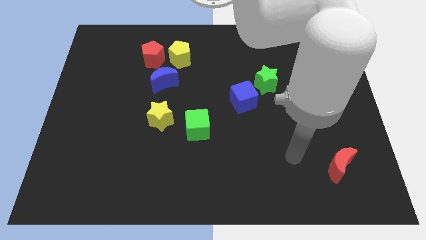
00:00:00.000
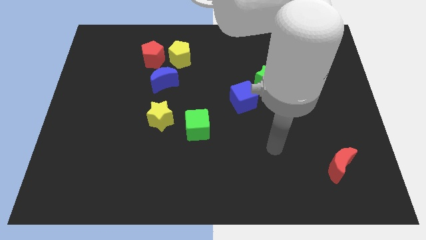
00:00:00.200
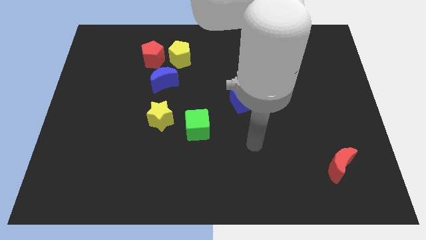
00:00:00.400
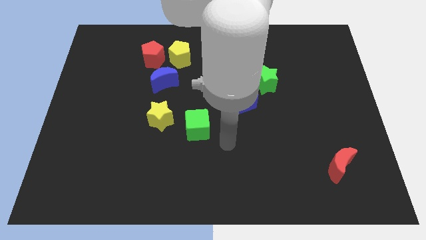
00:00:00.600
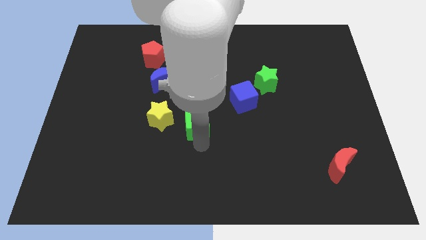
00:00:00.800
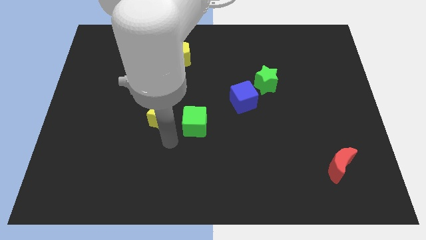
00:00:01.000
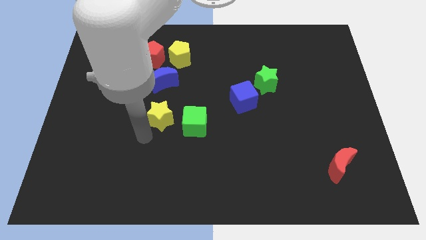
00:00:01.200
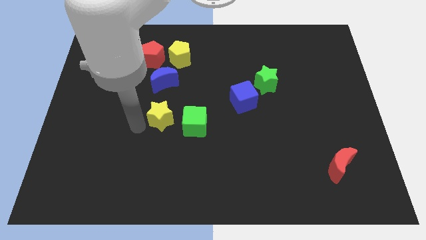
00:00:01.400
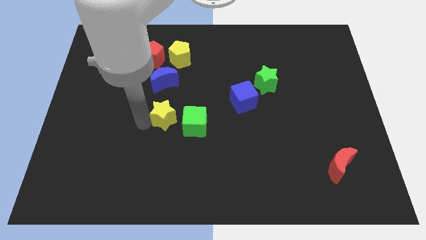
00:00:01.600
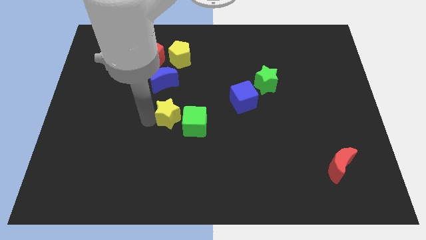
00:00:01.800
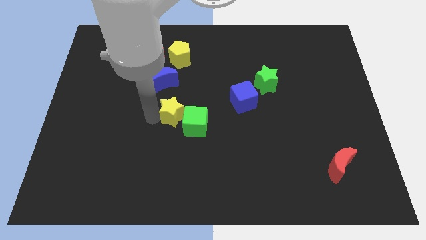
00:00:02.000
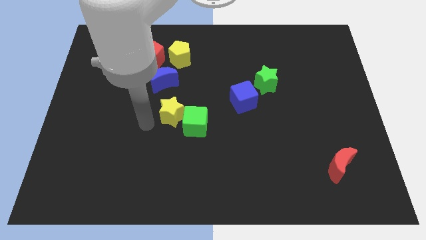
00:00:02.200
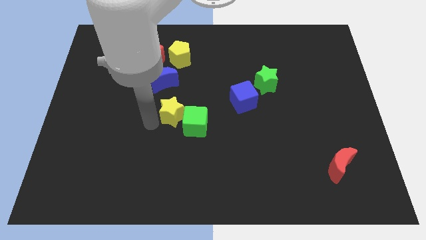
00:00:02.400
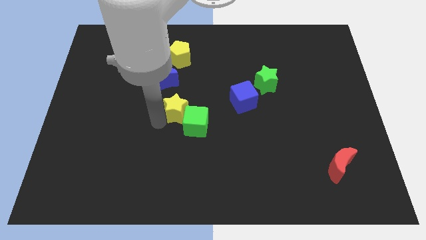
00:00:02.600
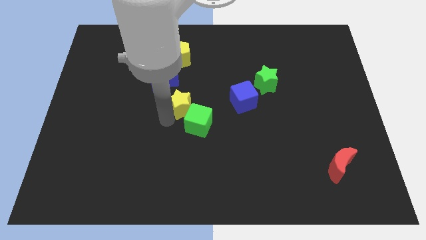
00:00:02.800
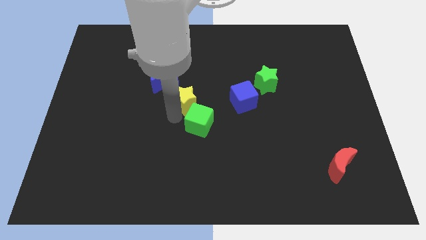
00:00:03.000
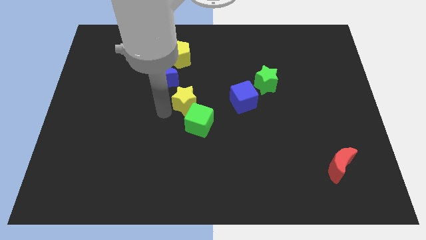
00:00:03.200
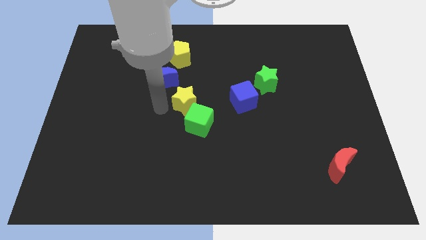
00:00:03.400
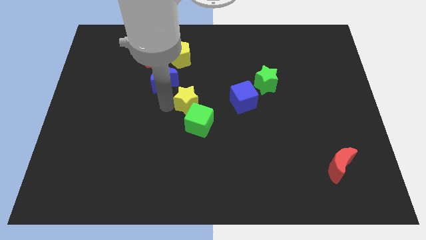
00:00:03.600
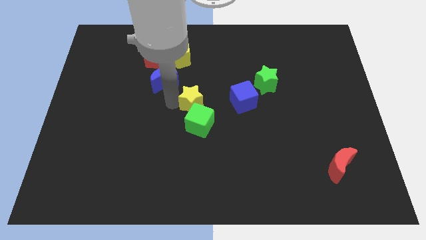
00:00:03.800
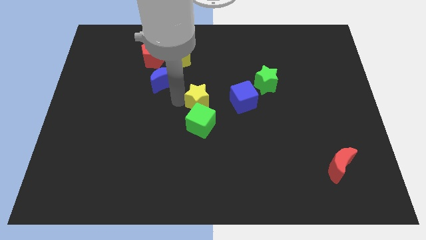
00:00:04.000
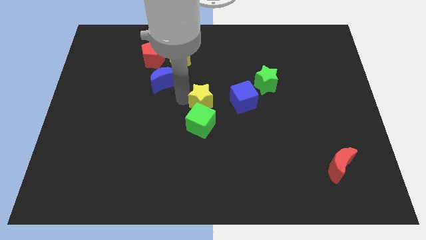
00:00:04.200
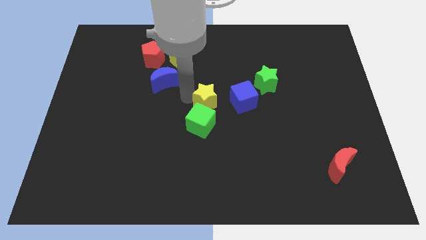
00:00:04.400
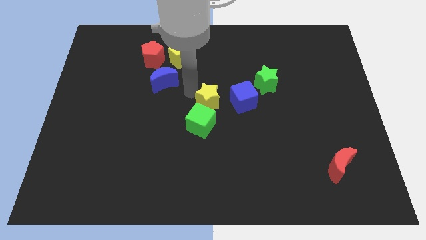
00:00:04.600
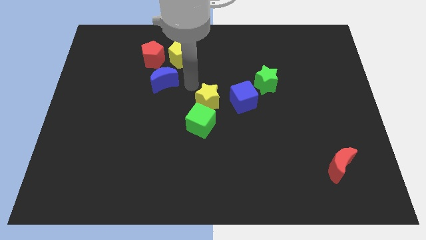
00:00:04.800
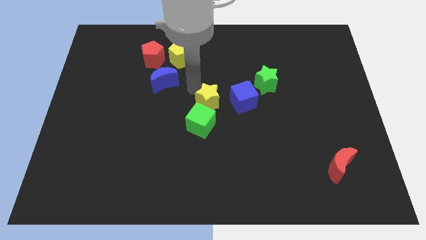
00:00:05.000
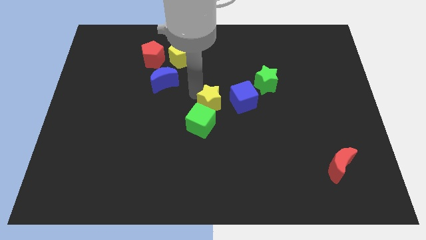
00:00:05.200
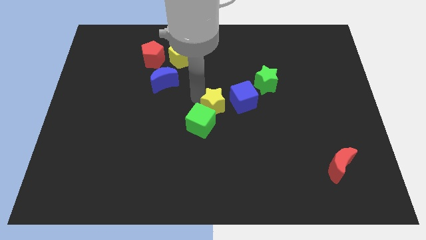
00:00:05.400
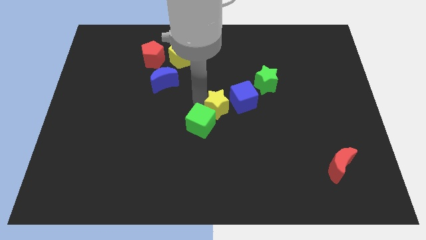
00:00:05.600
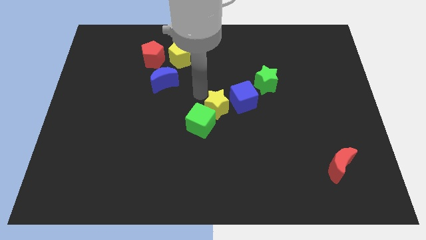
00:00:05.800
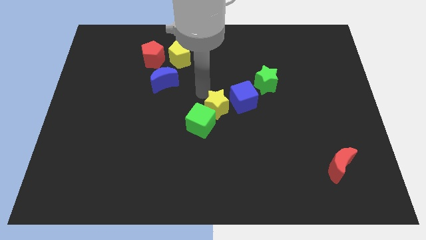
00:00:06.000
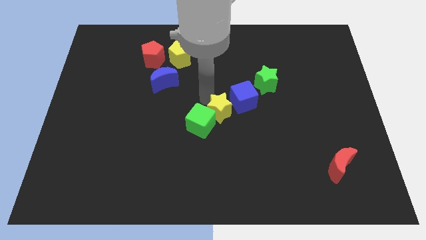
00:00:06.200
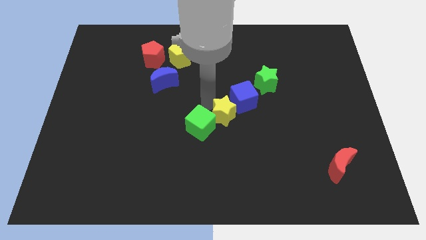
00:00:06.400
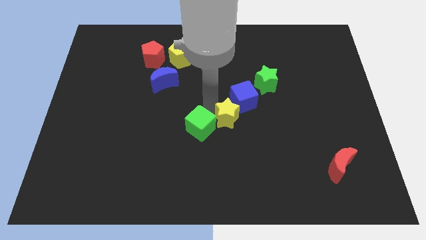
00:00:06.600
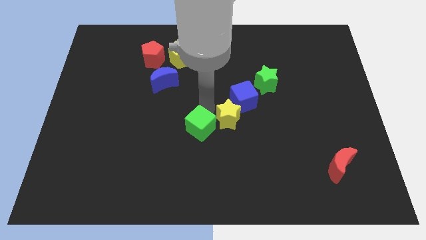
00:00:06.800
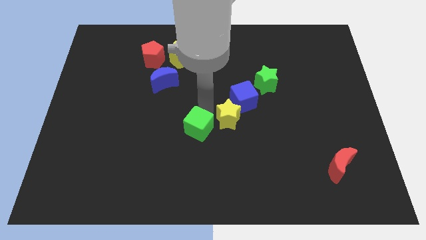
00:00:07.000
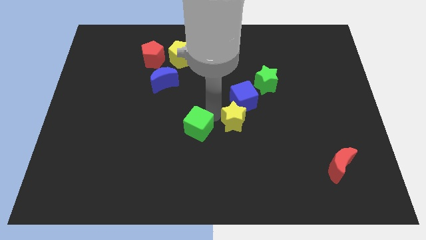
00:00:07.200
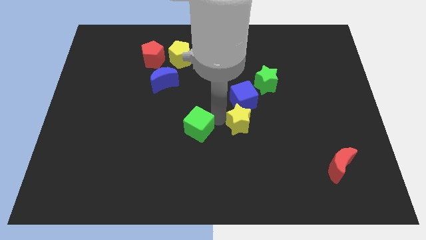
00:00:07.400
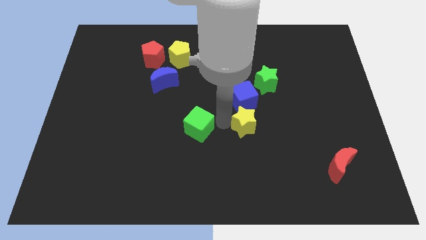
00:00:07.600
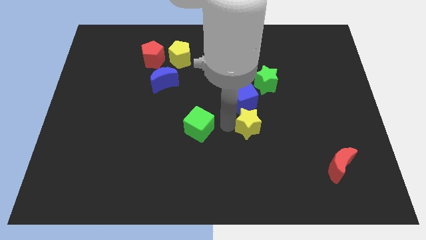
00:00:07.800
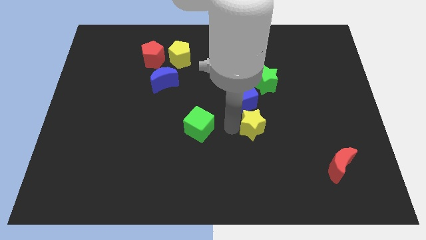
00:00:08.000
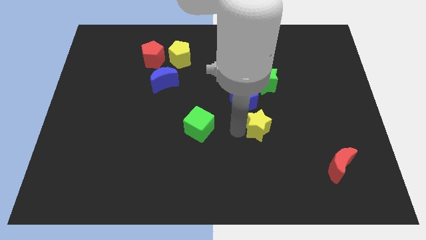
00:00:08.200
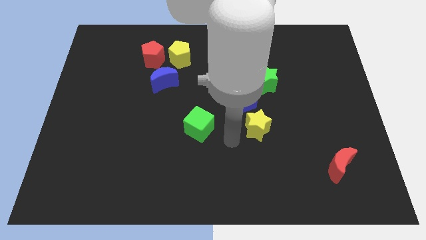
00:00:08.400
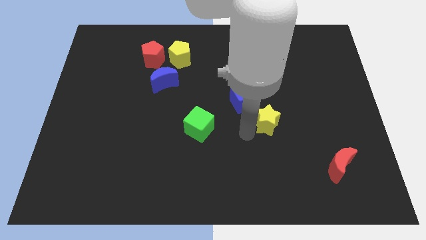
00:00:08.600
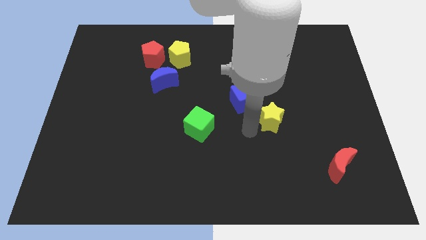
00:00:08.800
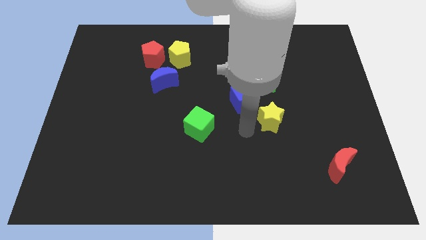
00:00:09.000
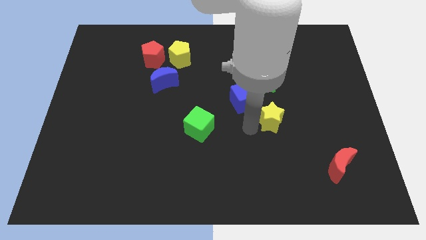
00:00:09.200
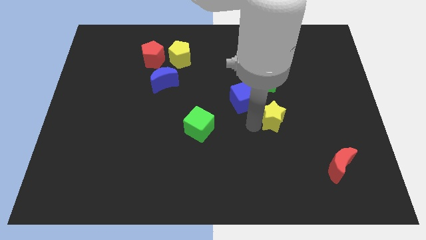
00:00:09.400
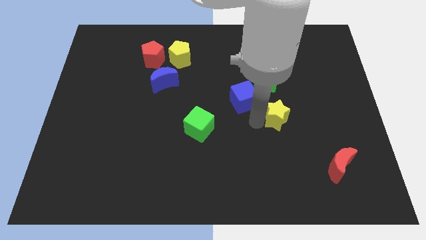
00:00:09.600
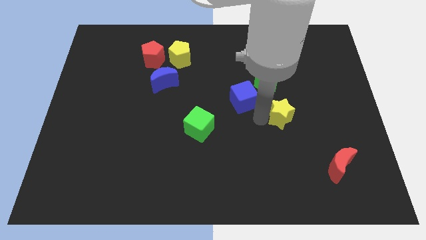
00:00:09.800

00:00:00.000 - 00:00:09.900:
put the yellow star to the right of the blue cube

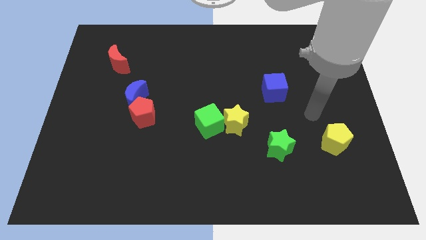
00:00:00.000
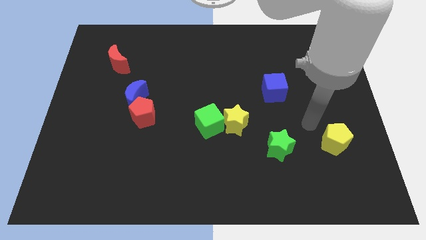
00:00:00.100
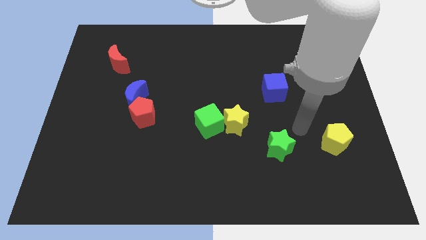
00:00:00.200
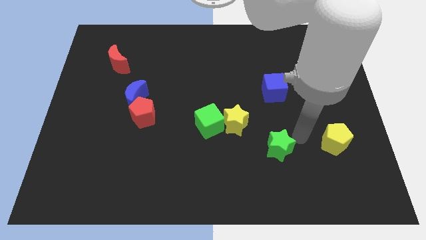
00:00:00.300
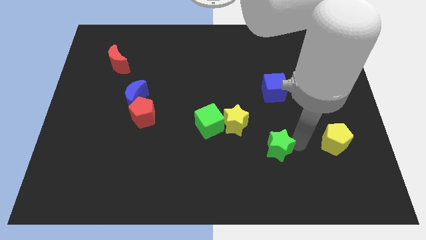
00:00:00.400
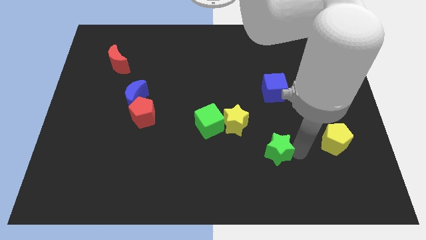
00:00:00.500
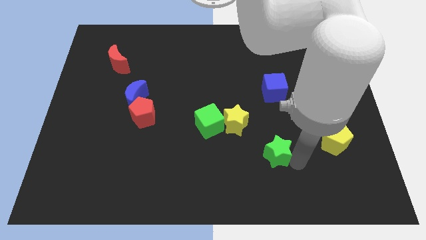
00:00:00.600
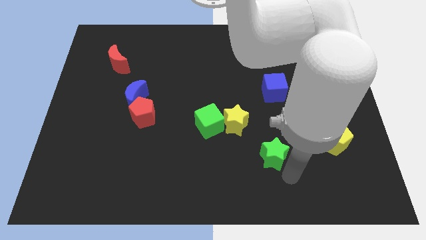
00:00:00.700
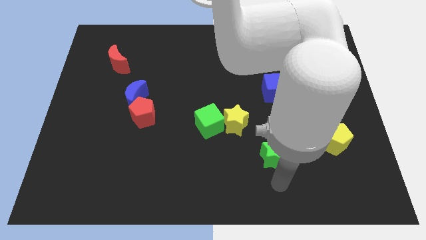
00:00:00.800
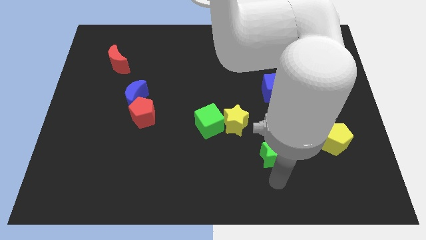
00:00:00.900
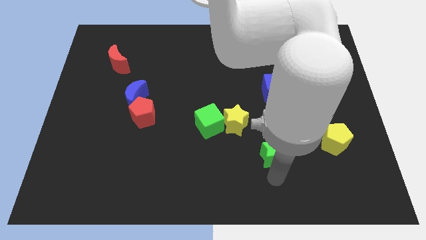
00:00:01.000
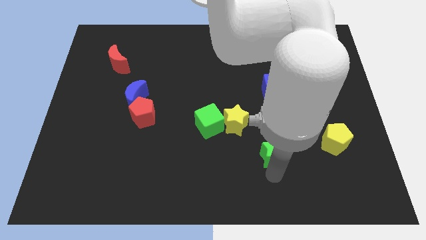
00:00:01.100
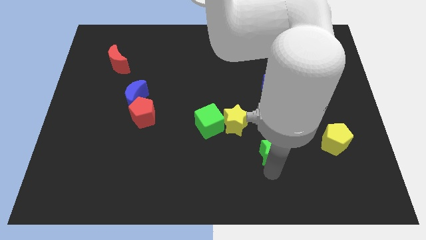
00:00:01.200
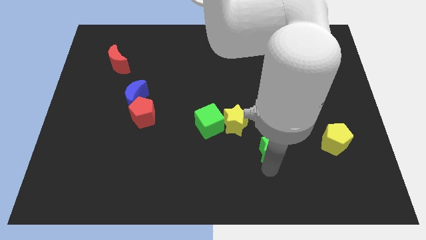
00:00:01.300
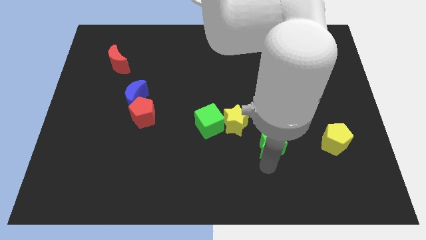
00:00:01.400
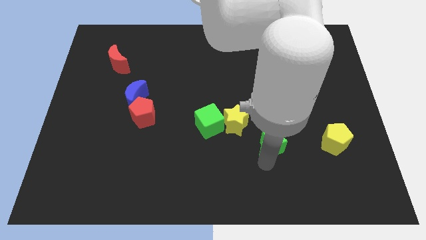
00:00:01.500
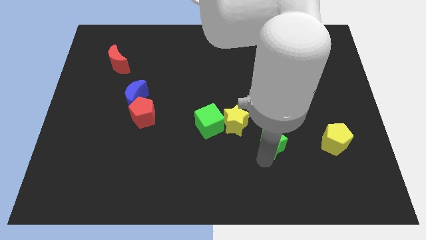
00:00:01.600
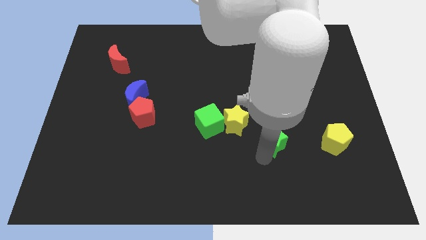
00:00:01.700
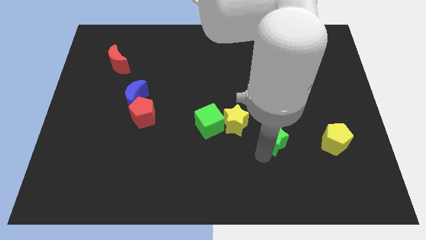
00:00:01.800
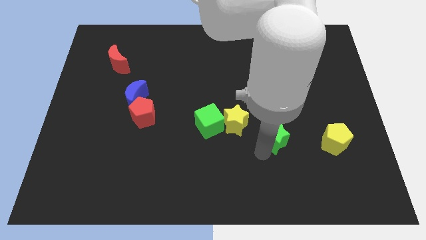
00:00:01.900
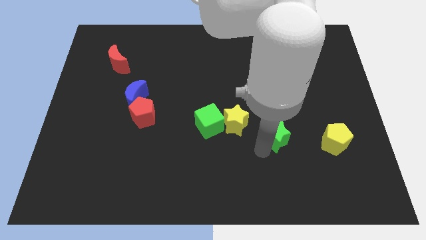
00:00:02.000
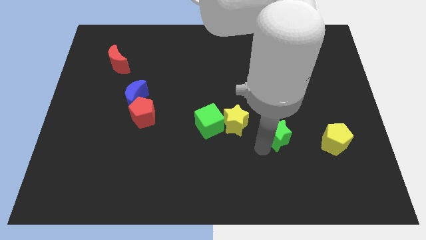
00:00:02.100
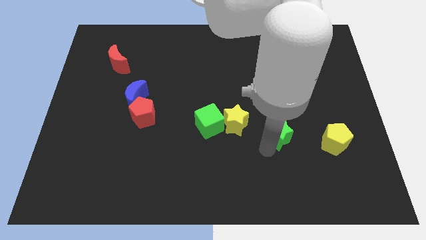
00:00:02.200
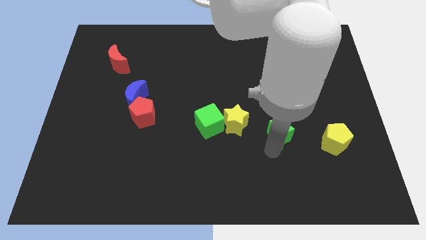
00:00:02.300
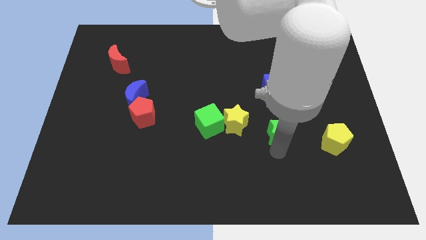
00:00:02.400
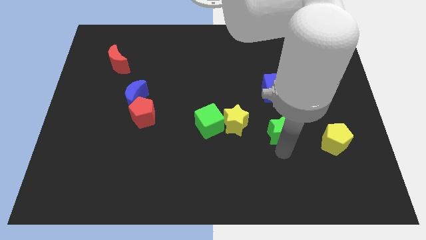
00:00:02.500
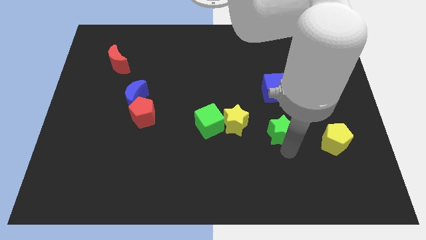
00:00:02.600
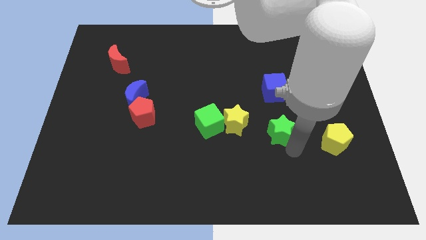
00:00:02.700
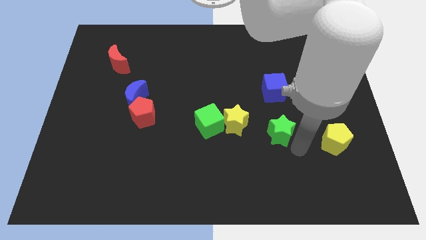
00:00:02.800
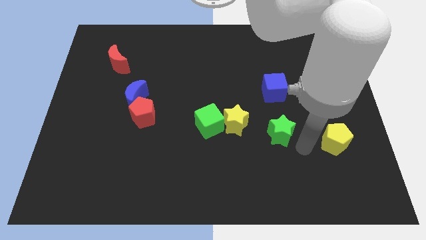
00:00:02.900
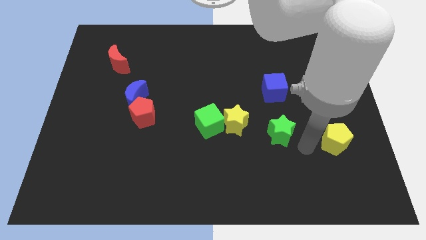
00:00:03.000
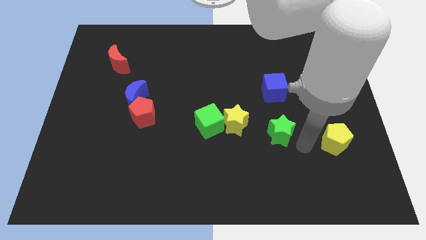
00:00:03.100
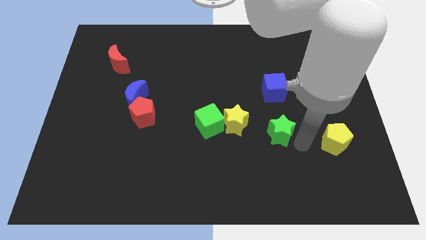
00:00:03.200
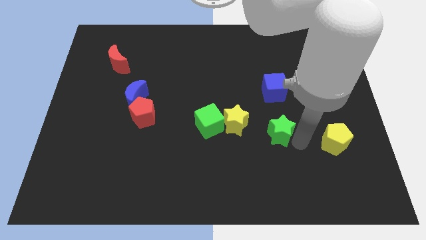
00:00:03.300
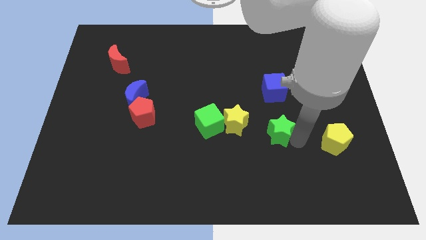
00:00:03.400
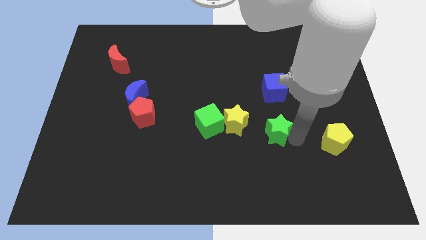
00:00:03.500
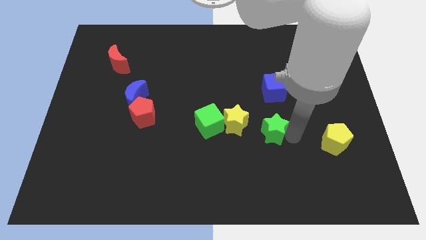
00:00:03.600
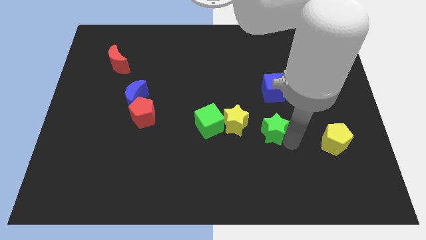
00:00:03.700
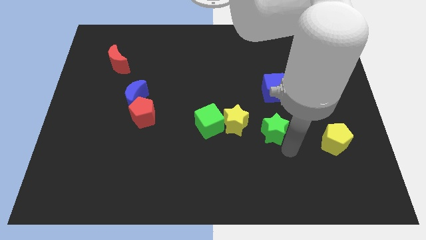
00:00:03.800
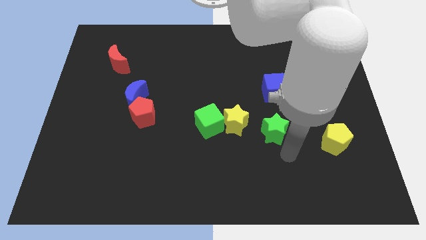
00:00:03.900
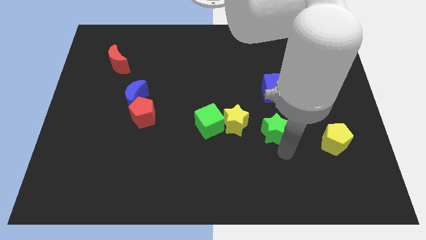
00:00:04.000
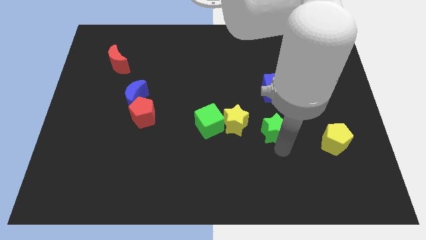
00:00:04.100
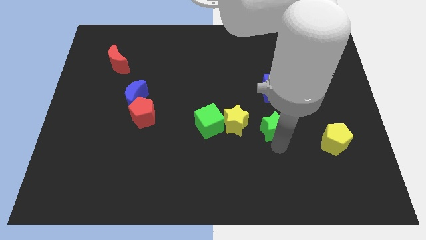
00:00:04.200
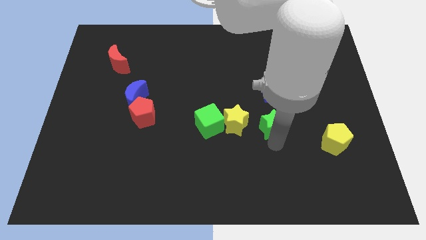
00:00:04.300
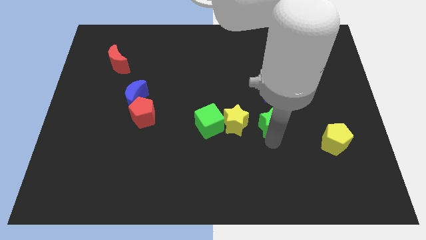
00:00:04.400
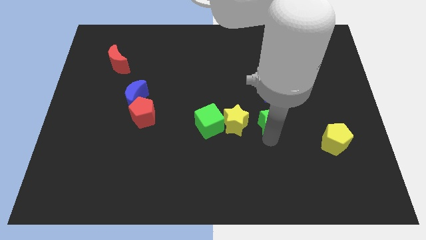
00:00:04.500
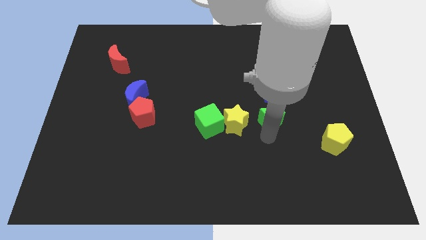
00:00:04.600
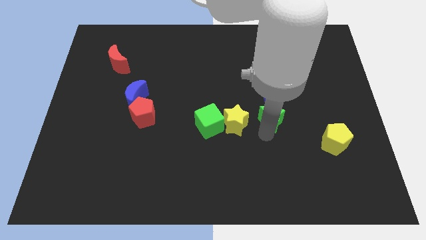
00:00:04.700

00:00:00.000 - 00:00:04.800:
push the green star to the top right side of the yellow star
